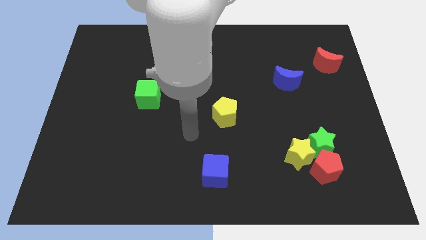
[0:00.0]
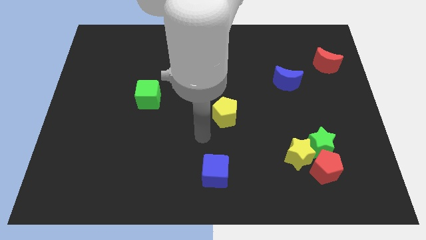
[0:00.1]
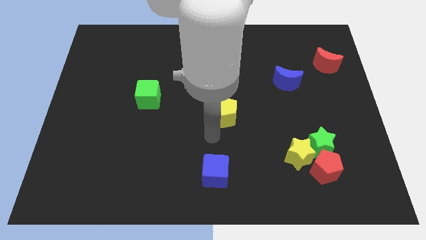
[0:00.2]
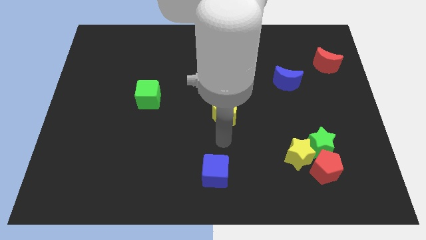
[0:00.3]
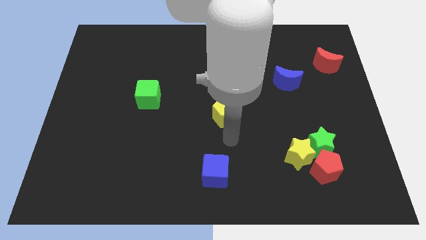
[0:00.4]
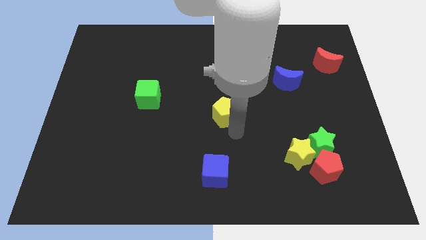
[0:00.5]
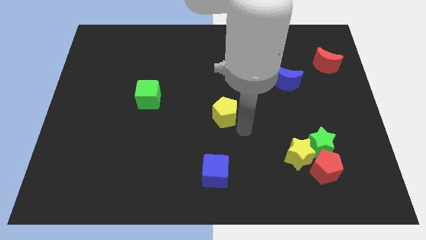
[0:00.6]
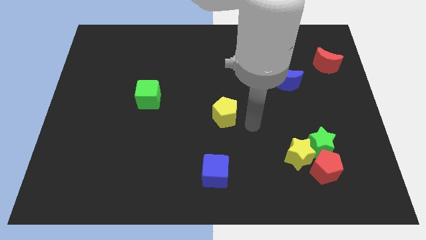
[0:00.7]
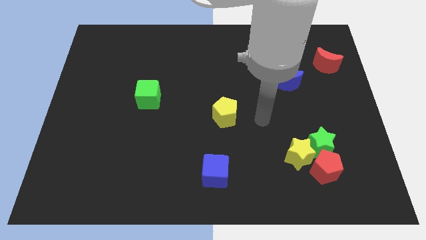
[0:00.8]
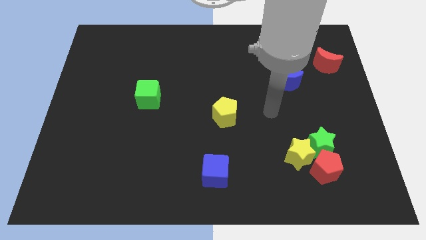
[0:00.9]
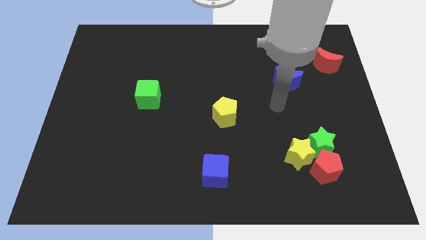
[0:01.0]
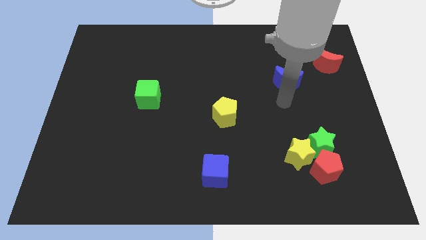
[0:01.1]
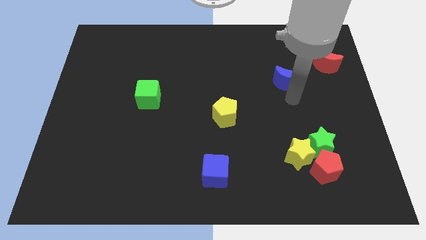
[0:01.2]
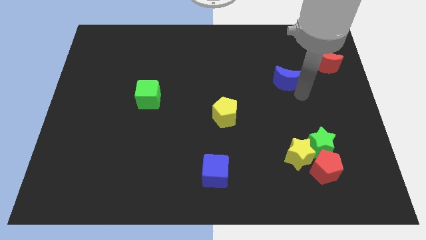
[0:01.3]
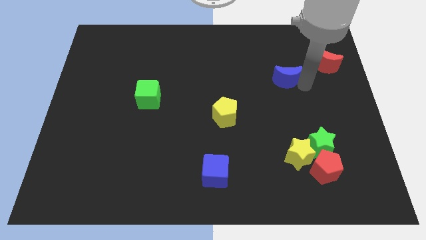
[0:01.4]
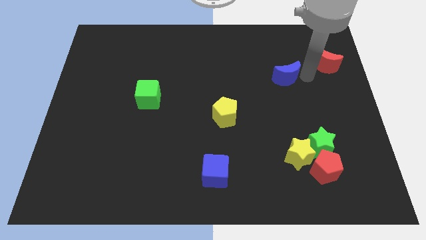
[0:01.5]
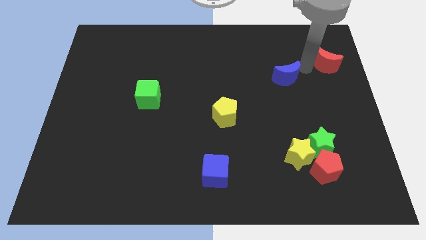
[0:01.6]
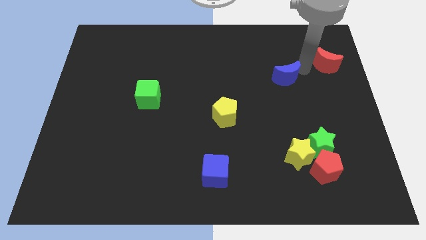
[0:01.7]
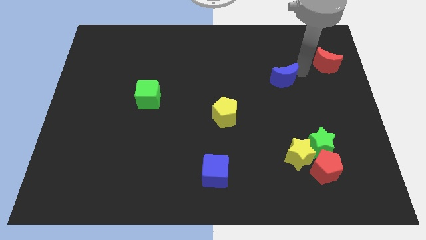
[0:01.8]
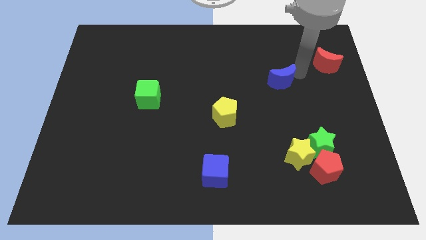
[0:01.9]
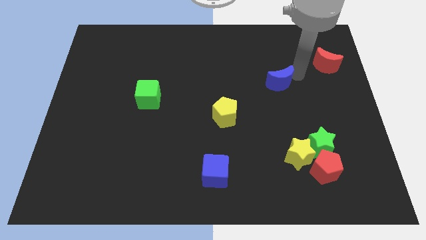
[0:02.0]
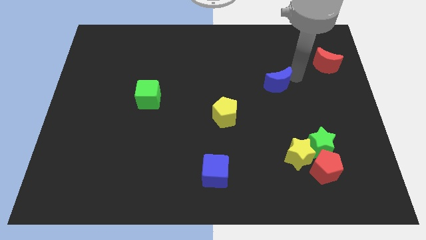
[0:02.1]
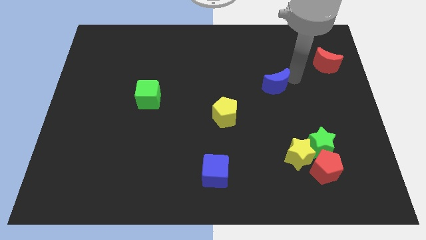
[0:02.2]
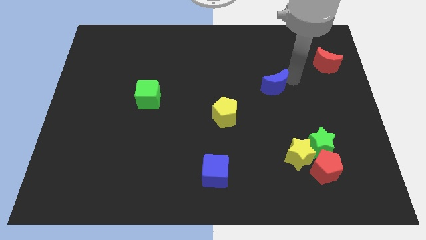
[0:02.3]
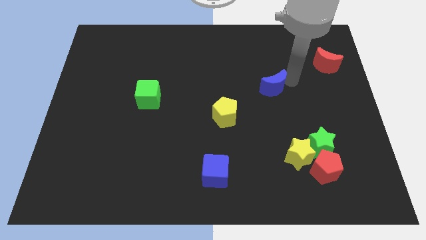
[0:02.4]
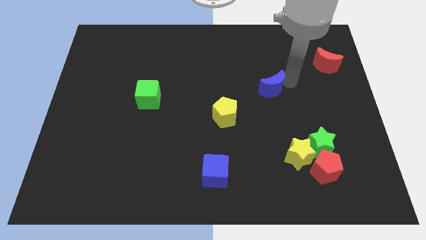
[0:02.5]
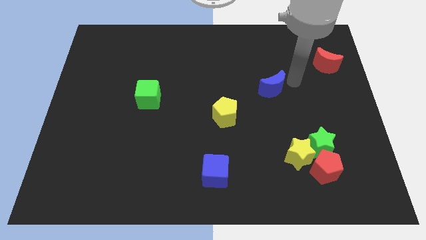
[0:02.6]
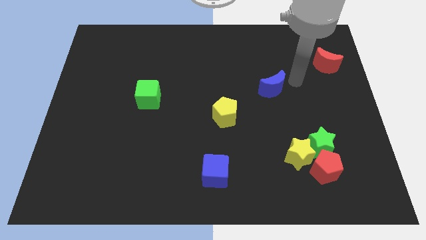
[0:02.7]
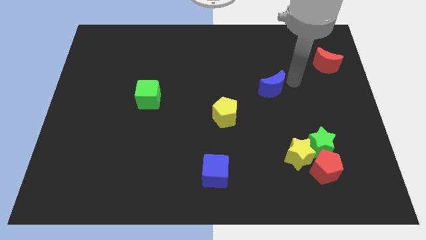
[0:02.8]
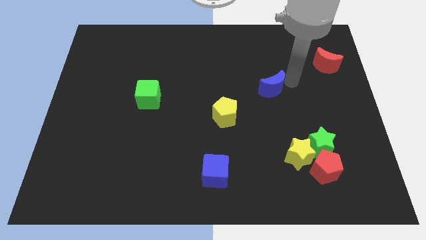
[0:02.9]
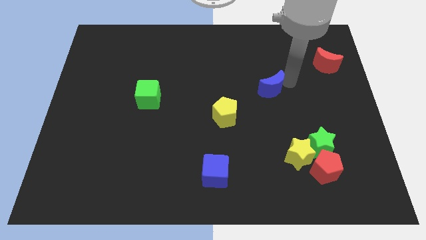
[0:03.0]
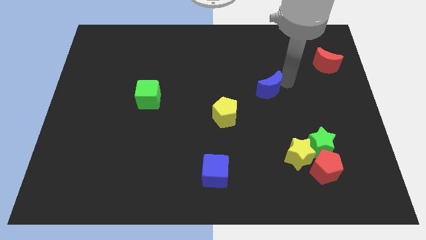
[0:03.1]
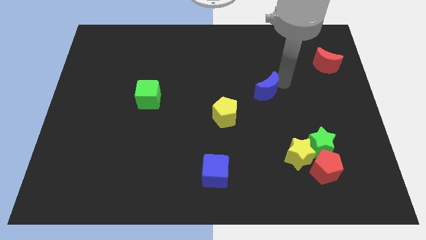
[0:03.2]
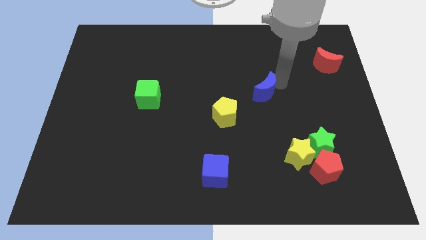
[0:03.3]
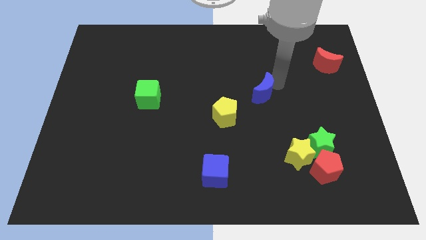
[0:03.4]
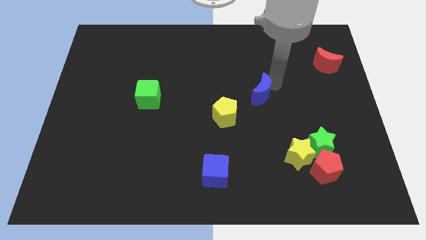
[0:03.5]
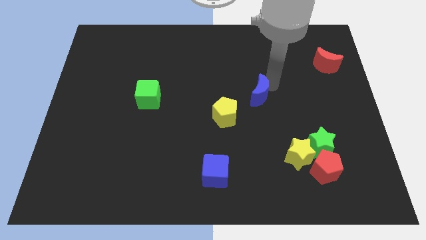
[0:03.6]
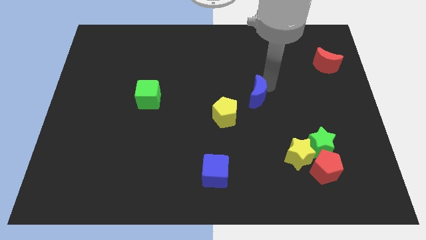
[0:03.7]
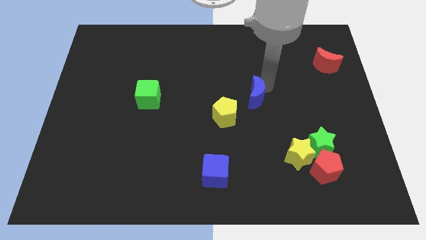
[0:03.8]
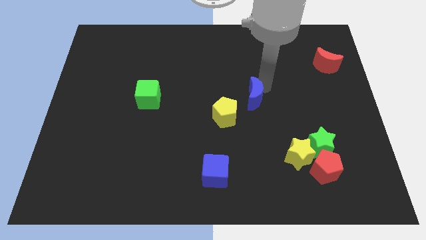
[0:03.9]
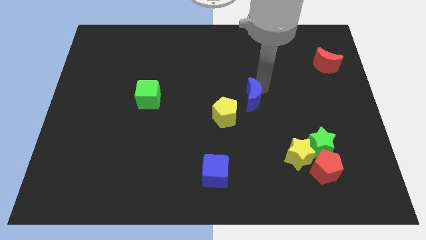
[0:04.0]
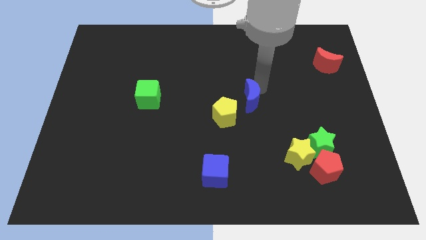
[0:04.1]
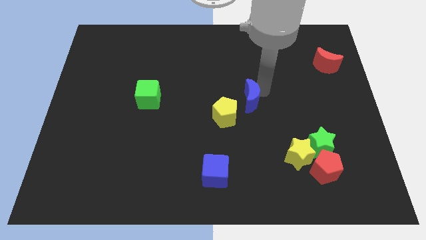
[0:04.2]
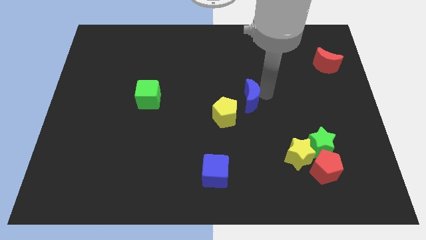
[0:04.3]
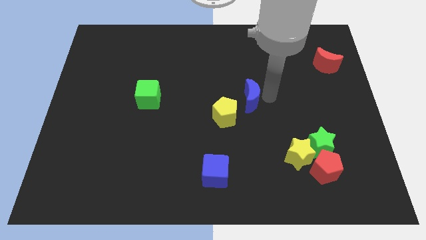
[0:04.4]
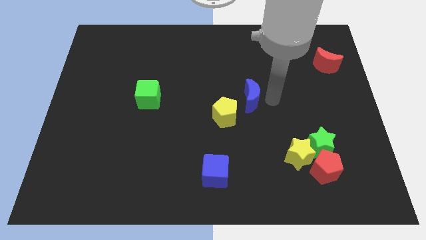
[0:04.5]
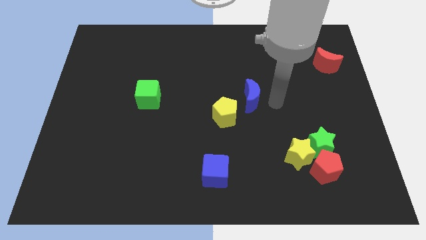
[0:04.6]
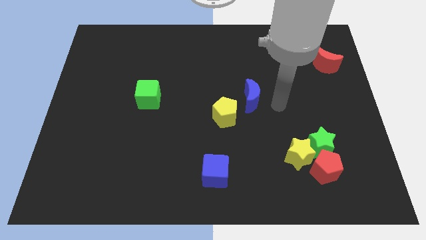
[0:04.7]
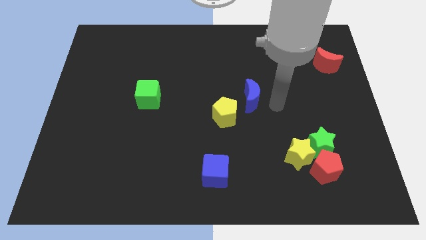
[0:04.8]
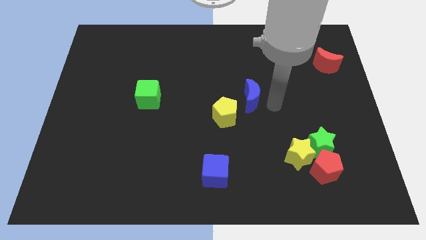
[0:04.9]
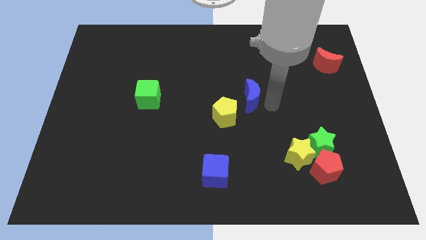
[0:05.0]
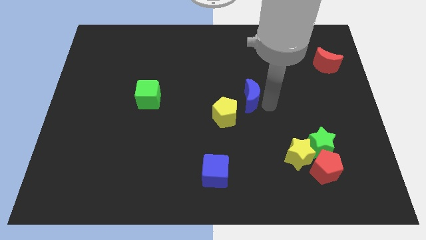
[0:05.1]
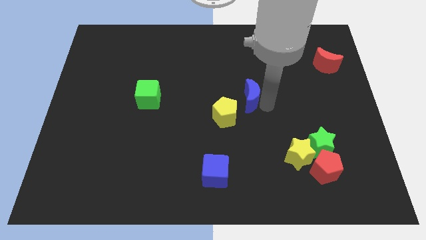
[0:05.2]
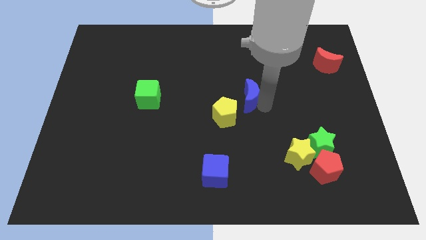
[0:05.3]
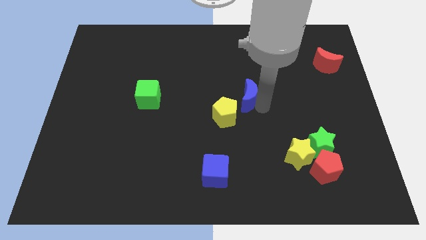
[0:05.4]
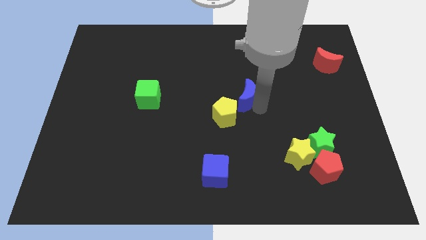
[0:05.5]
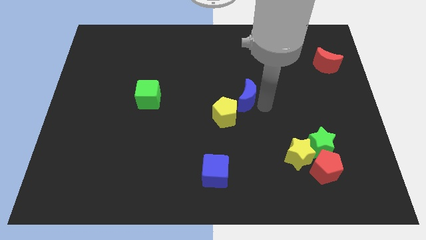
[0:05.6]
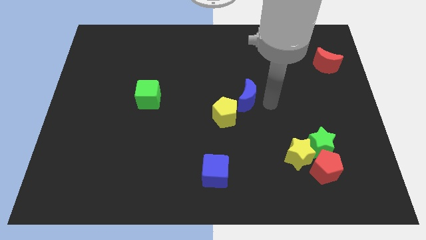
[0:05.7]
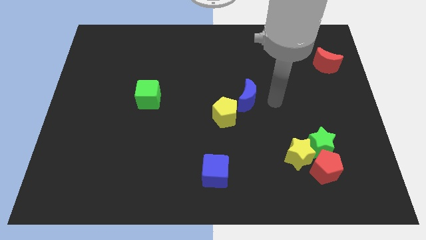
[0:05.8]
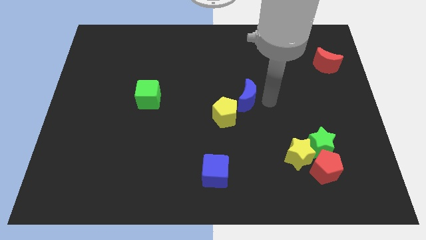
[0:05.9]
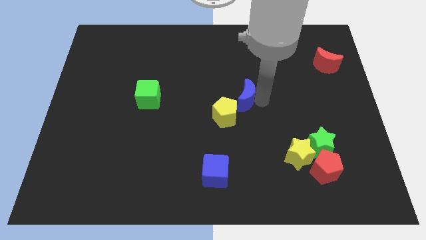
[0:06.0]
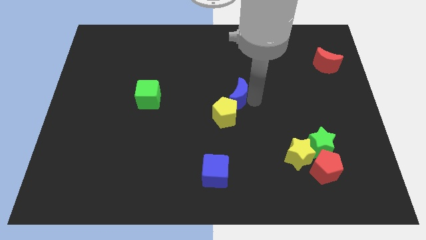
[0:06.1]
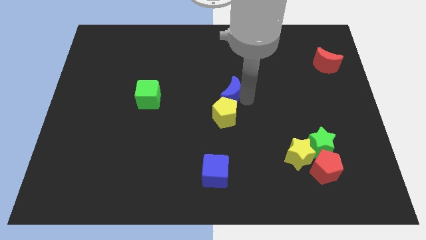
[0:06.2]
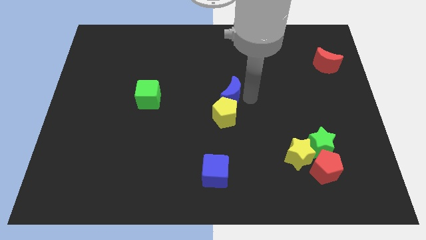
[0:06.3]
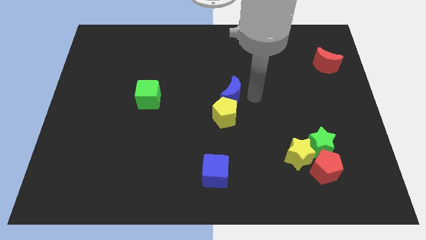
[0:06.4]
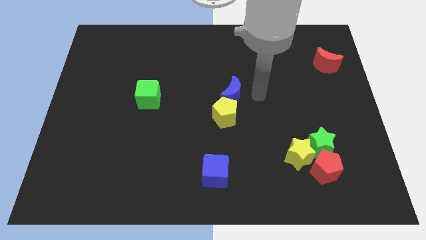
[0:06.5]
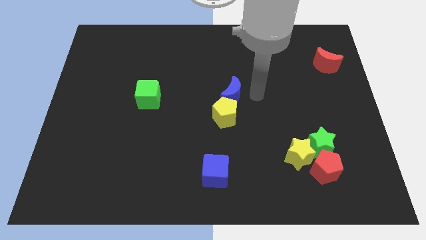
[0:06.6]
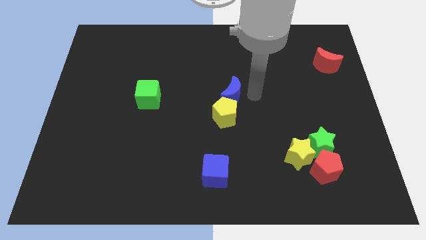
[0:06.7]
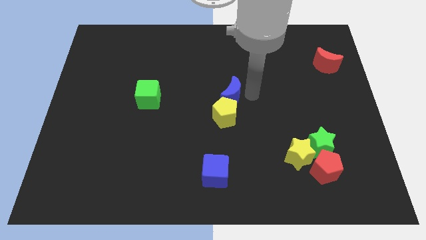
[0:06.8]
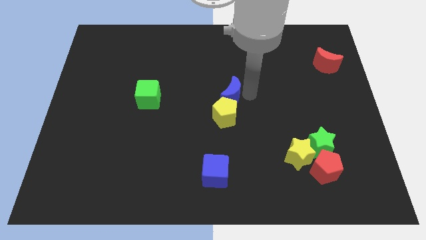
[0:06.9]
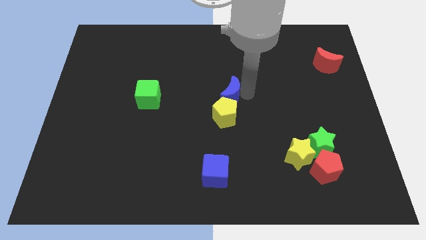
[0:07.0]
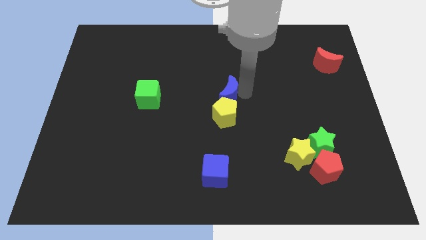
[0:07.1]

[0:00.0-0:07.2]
push the blue moon diagonally up and to the left of the yellow pentagon
